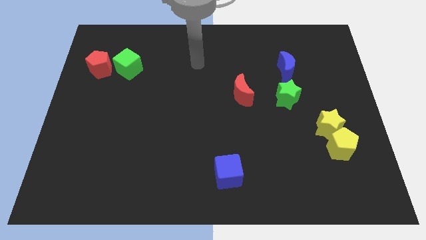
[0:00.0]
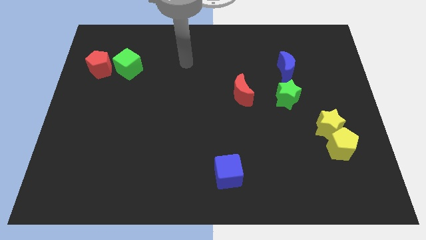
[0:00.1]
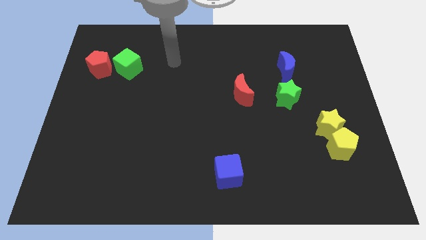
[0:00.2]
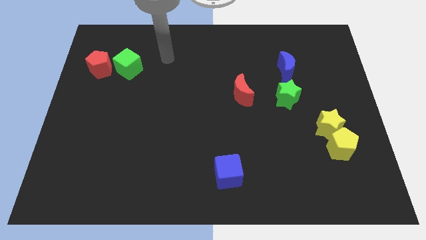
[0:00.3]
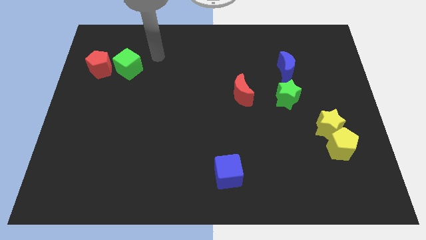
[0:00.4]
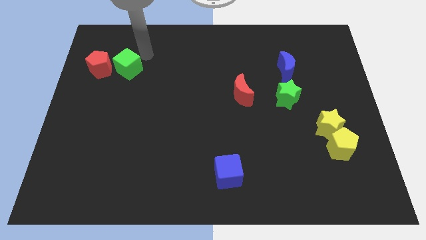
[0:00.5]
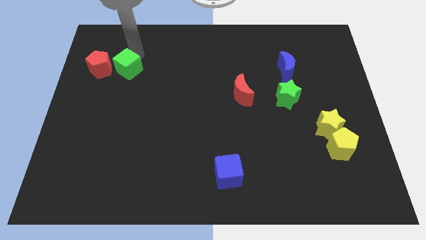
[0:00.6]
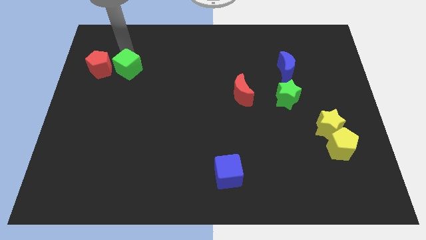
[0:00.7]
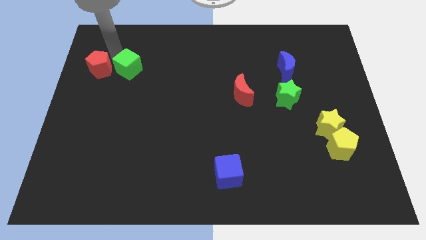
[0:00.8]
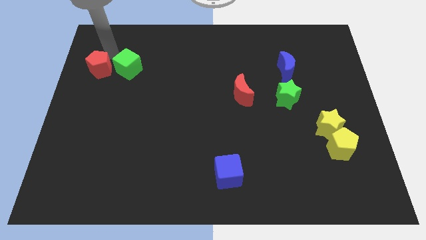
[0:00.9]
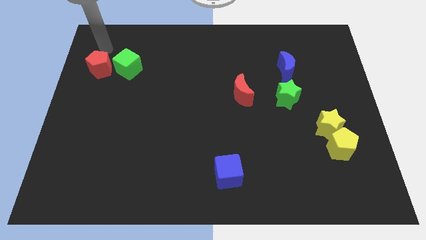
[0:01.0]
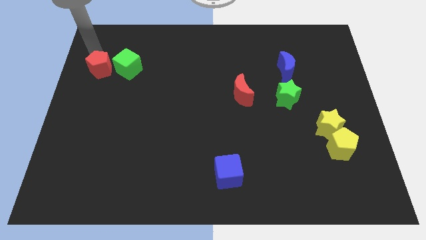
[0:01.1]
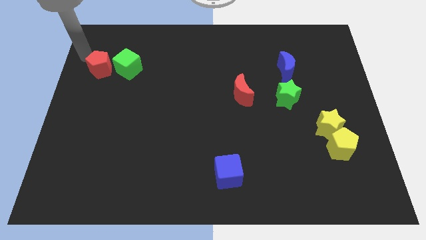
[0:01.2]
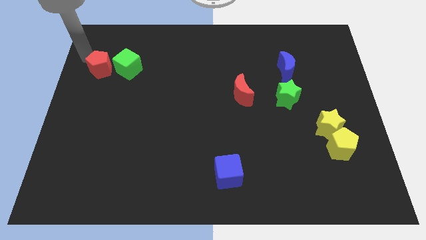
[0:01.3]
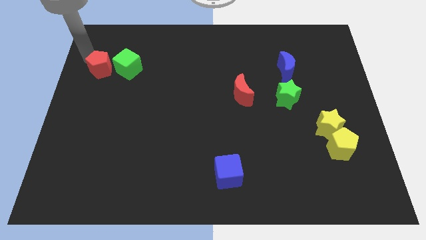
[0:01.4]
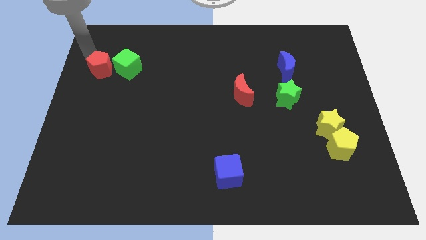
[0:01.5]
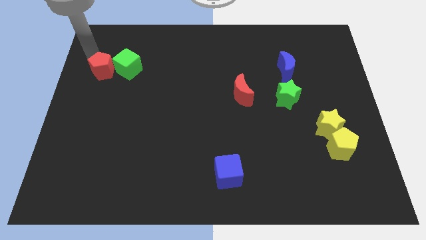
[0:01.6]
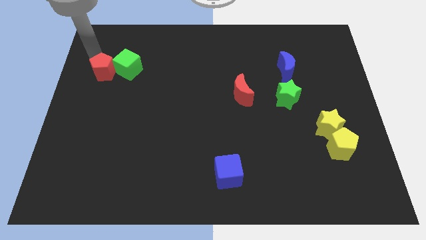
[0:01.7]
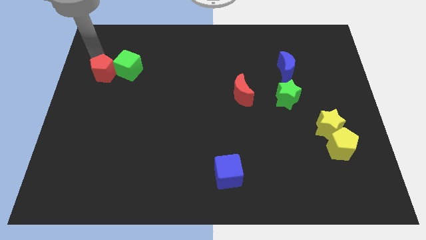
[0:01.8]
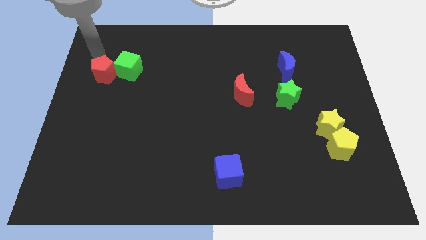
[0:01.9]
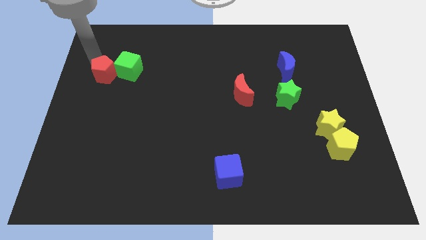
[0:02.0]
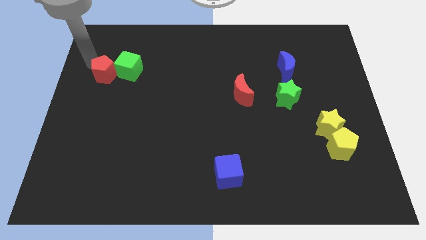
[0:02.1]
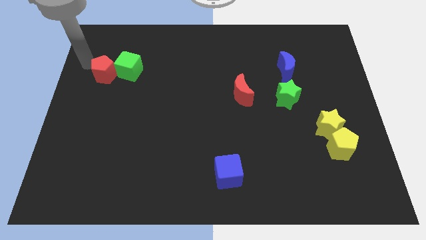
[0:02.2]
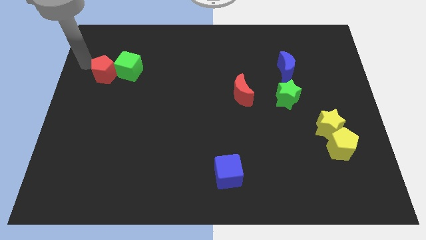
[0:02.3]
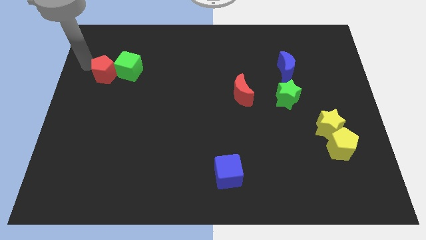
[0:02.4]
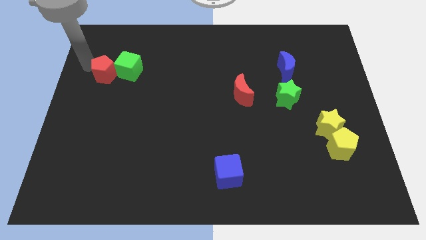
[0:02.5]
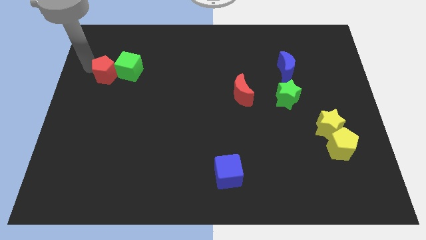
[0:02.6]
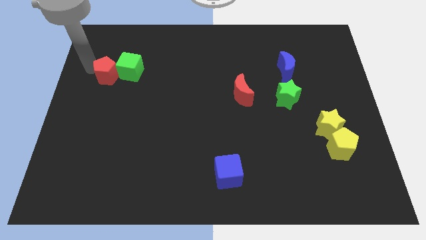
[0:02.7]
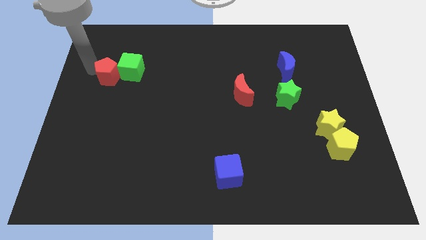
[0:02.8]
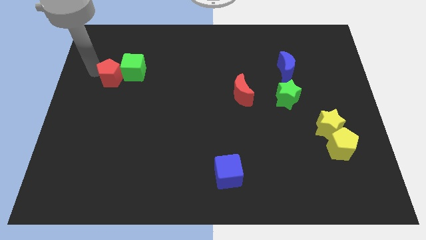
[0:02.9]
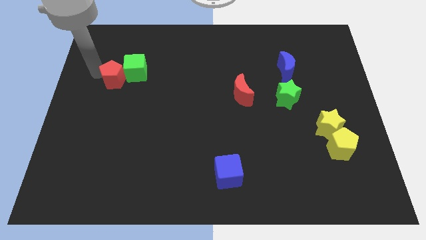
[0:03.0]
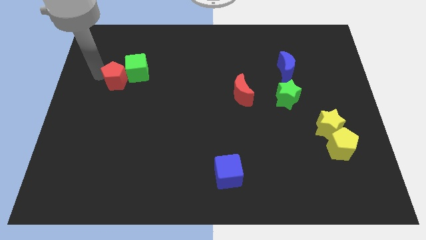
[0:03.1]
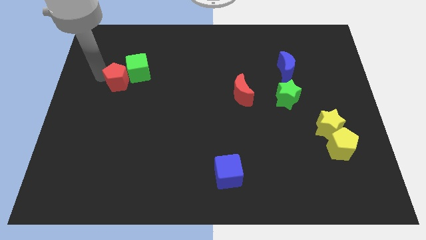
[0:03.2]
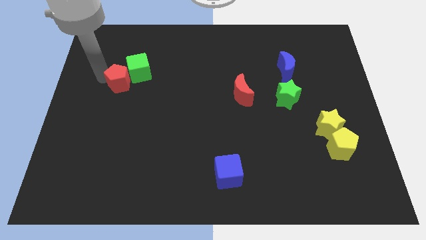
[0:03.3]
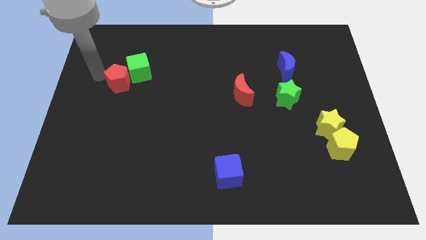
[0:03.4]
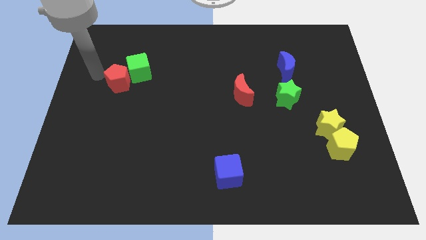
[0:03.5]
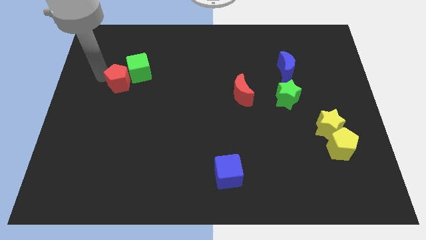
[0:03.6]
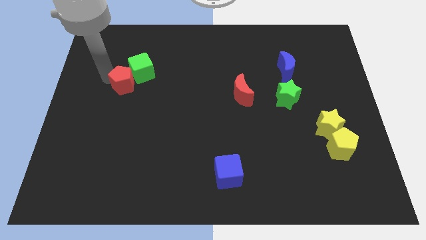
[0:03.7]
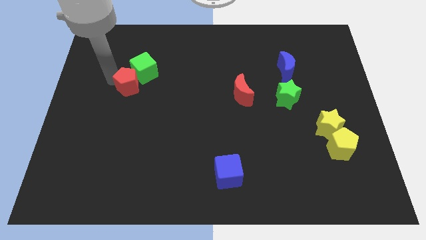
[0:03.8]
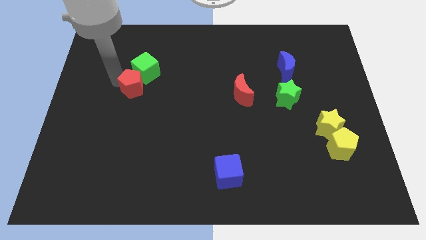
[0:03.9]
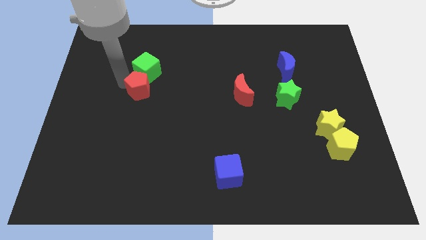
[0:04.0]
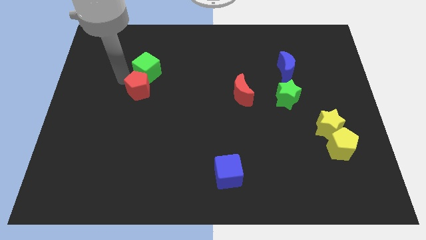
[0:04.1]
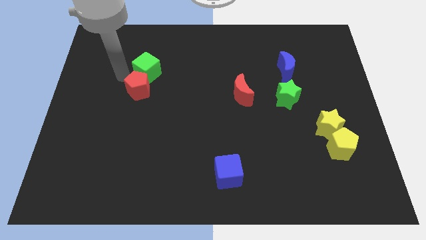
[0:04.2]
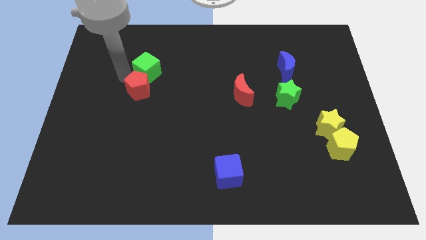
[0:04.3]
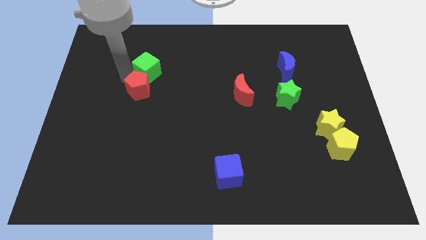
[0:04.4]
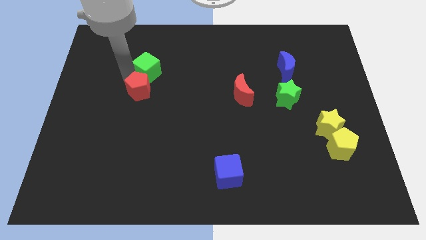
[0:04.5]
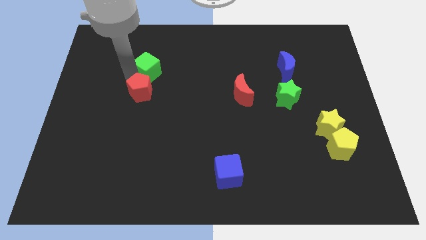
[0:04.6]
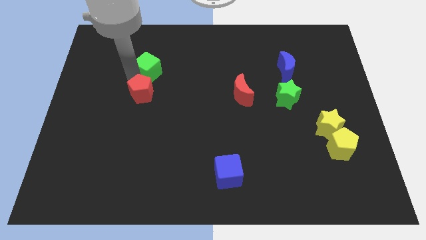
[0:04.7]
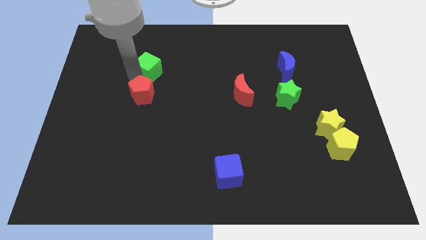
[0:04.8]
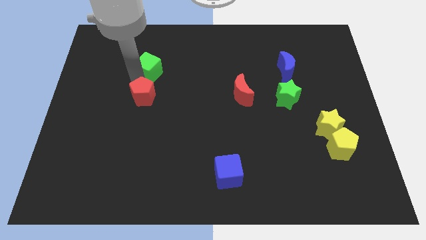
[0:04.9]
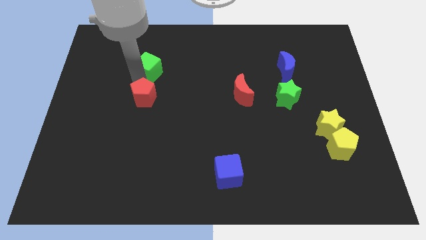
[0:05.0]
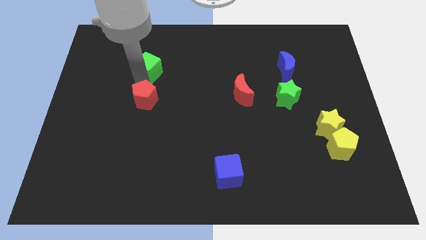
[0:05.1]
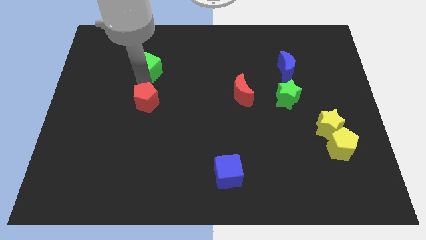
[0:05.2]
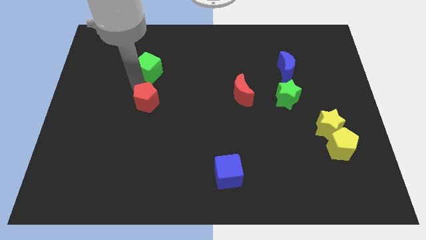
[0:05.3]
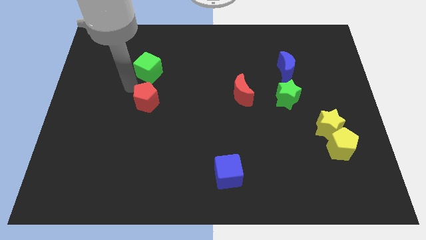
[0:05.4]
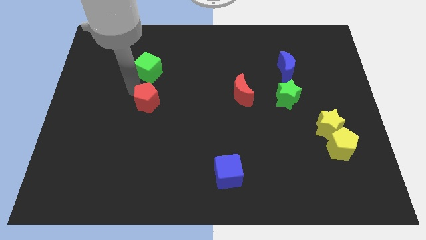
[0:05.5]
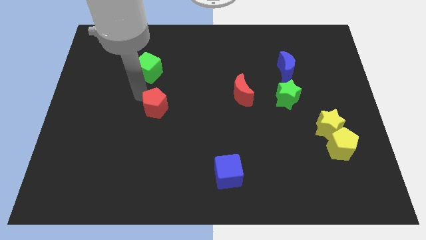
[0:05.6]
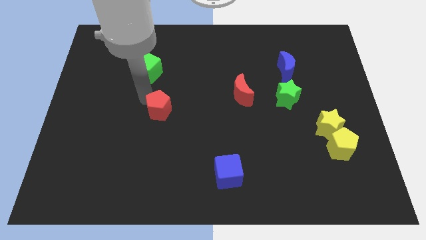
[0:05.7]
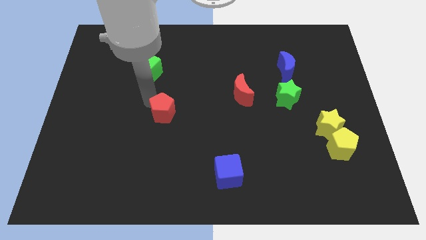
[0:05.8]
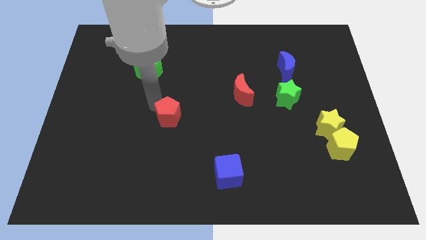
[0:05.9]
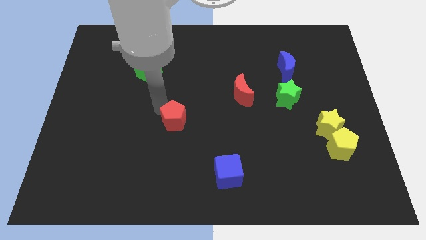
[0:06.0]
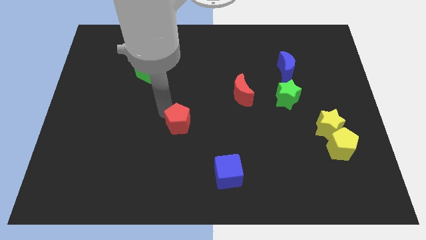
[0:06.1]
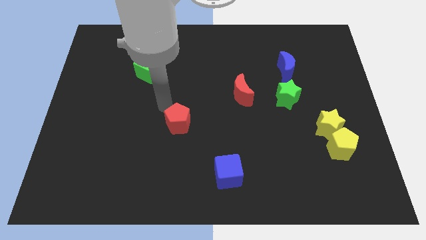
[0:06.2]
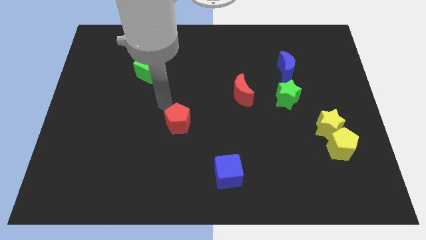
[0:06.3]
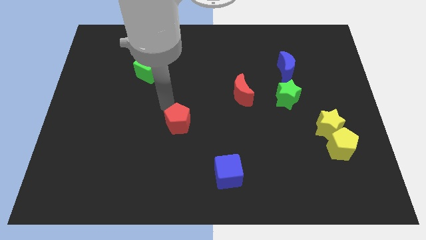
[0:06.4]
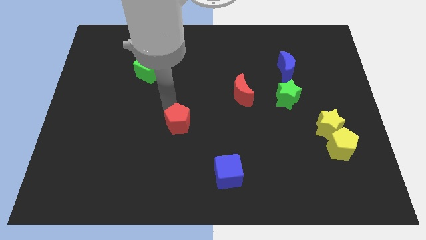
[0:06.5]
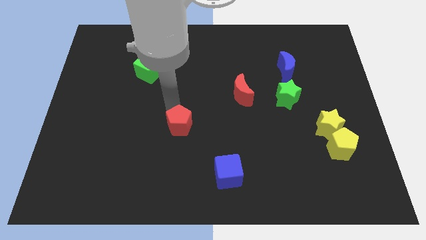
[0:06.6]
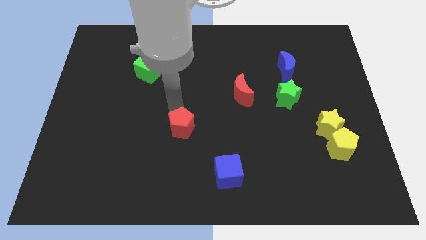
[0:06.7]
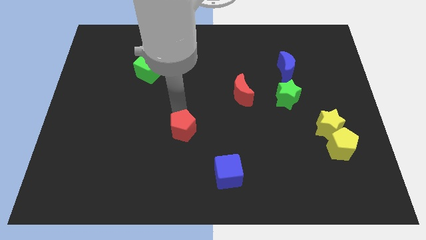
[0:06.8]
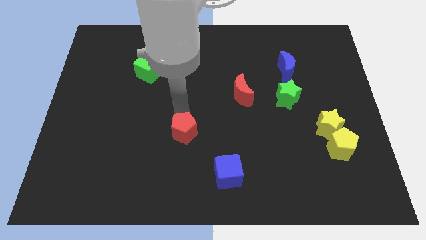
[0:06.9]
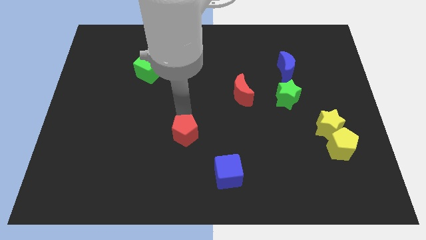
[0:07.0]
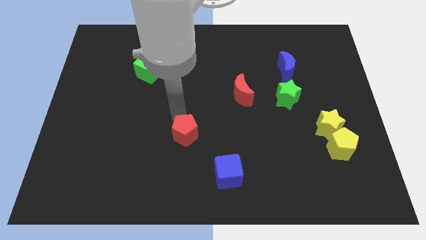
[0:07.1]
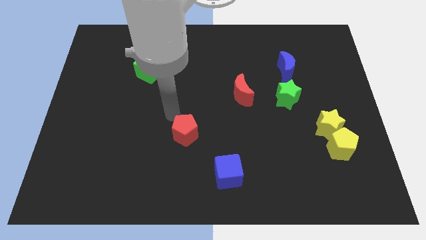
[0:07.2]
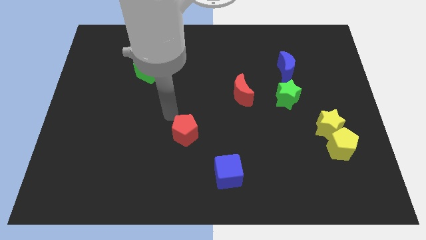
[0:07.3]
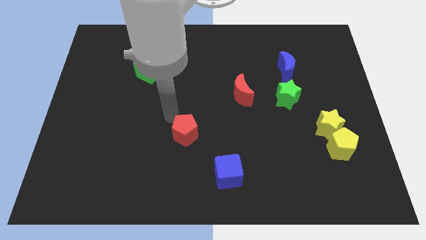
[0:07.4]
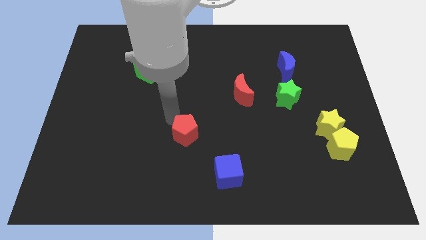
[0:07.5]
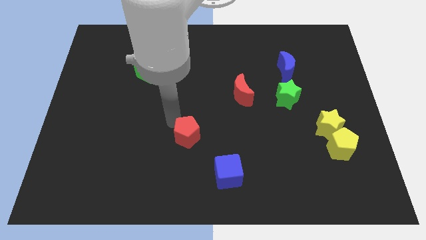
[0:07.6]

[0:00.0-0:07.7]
push the red pentagon to the top left side of the blue cube
